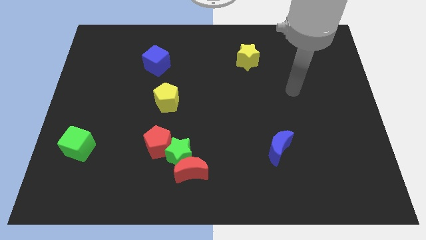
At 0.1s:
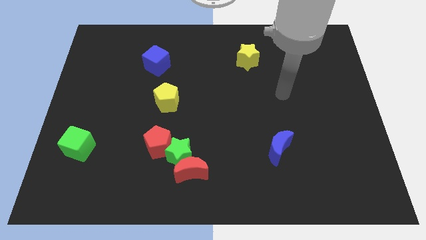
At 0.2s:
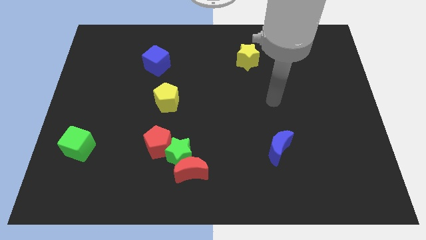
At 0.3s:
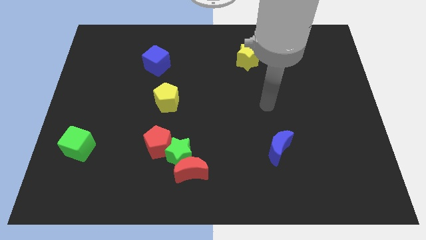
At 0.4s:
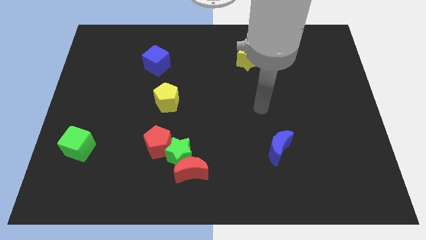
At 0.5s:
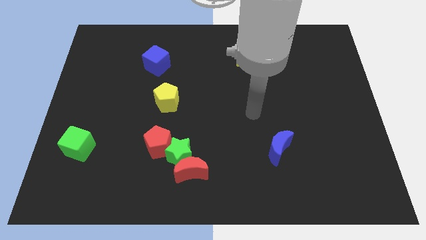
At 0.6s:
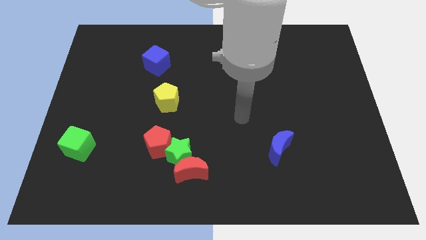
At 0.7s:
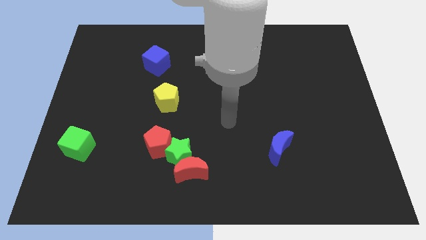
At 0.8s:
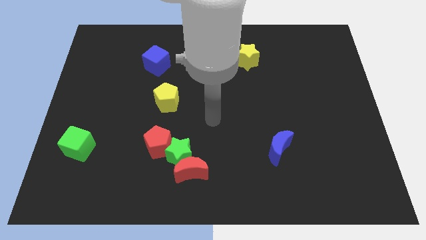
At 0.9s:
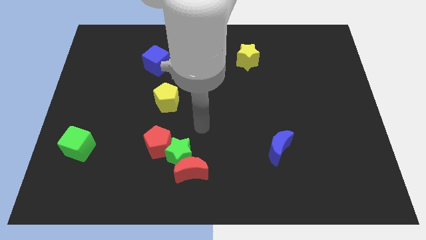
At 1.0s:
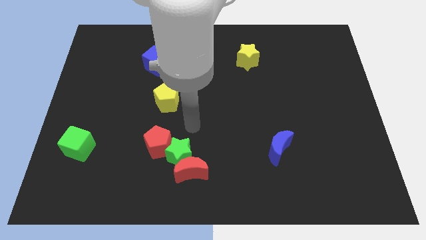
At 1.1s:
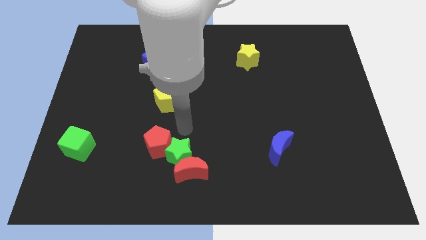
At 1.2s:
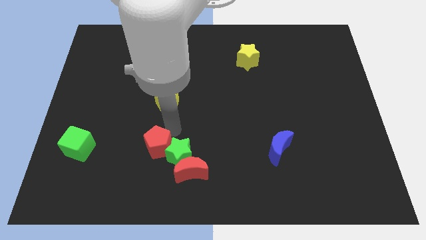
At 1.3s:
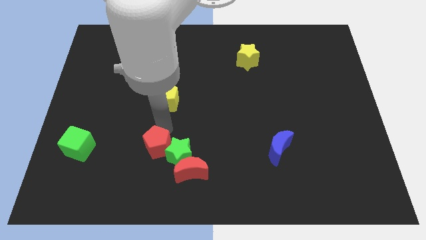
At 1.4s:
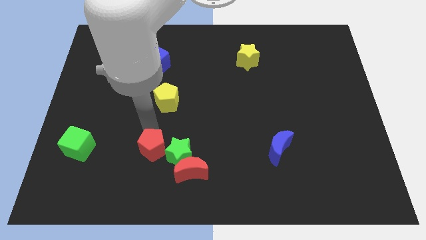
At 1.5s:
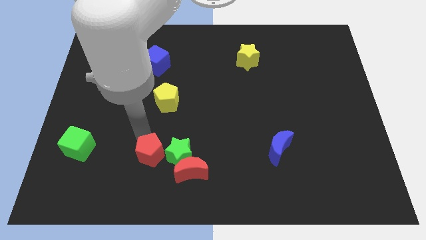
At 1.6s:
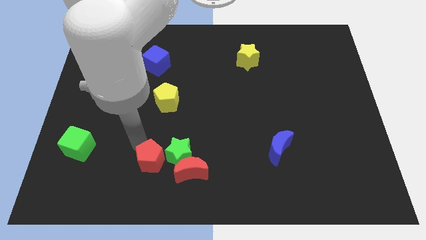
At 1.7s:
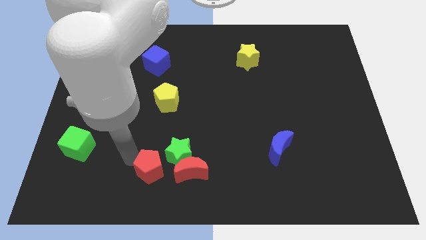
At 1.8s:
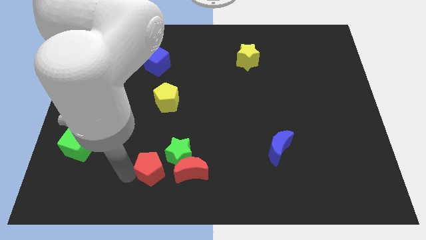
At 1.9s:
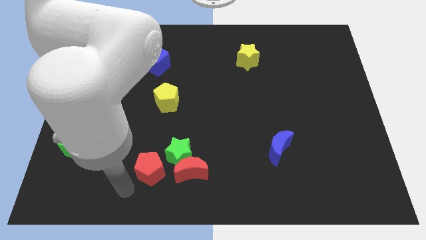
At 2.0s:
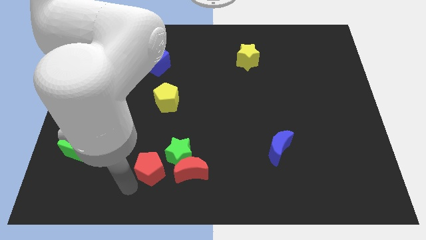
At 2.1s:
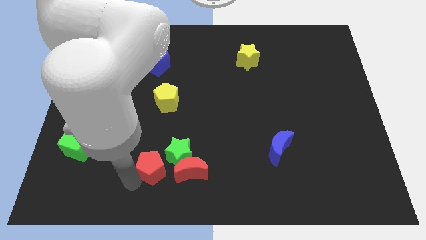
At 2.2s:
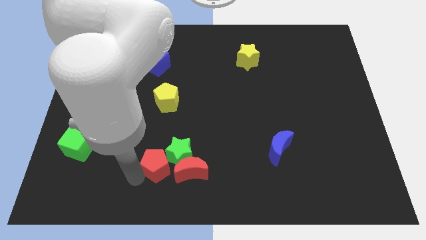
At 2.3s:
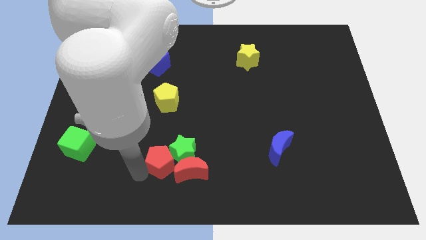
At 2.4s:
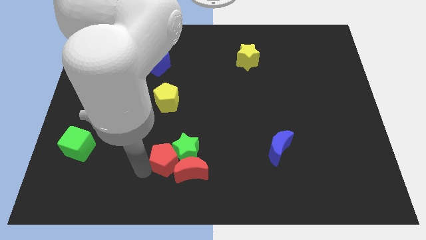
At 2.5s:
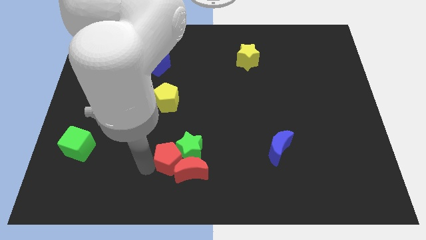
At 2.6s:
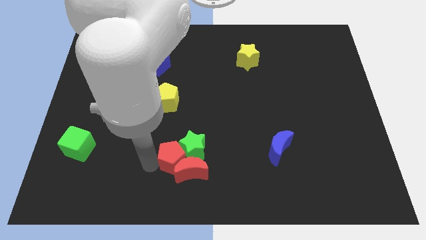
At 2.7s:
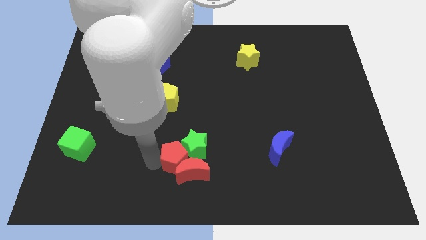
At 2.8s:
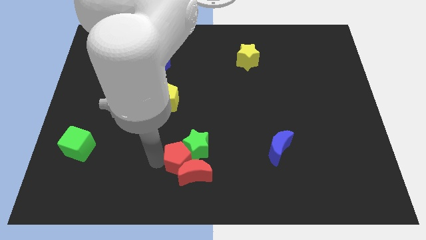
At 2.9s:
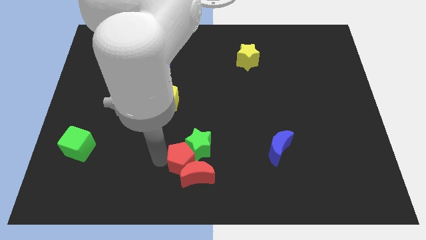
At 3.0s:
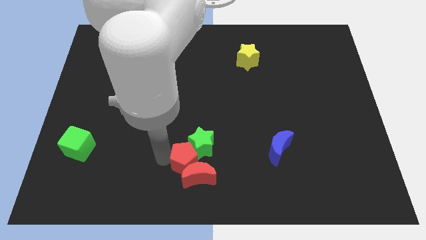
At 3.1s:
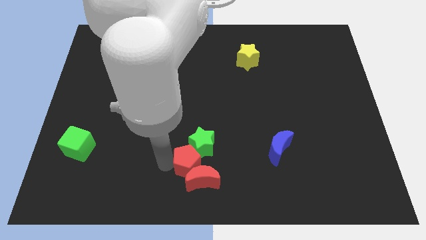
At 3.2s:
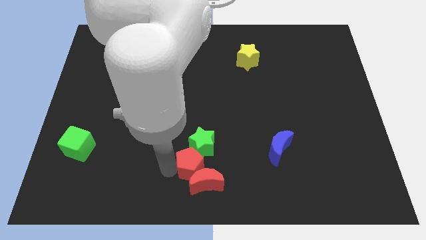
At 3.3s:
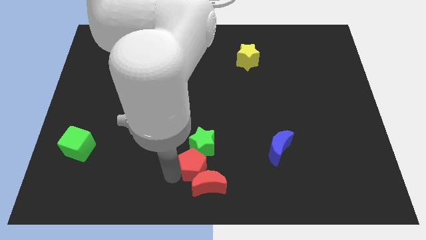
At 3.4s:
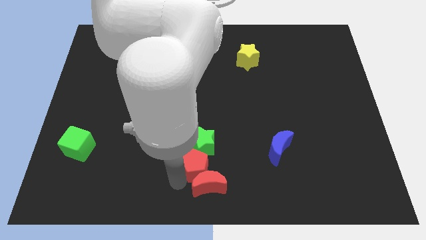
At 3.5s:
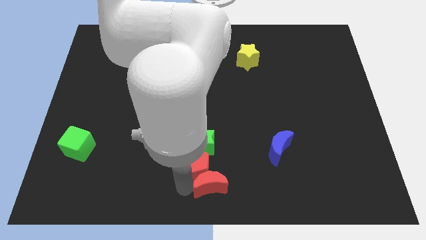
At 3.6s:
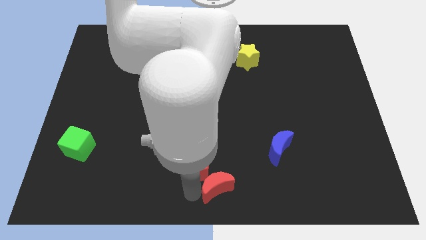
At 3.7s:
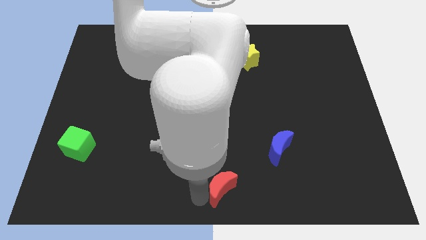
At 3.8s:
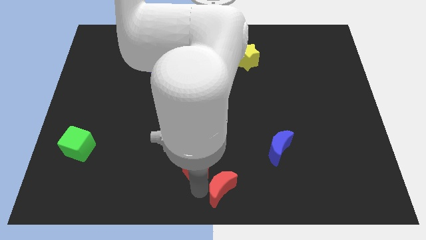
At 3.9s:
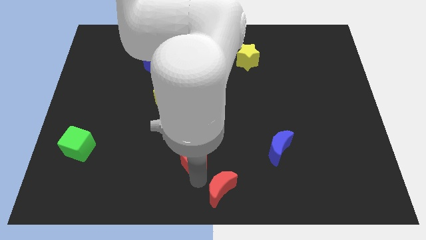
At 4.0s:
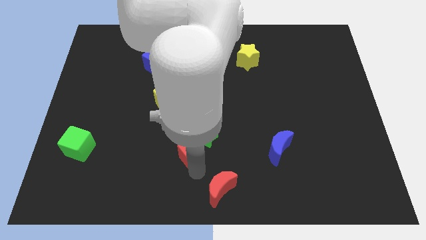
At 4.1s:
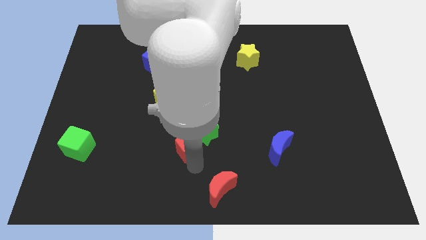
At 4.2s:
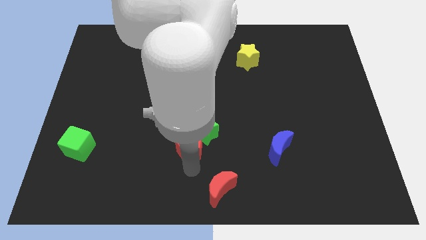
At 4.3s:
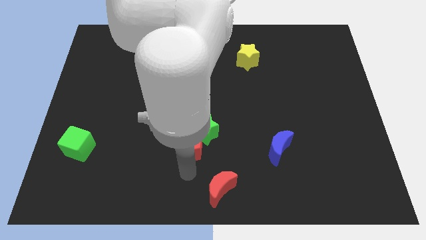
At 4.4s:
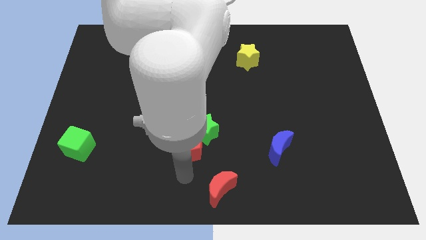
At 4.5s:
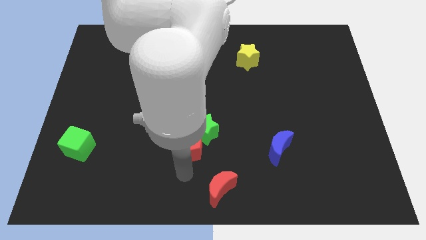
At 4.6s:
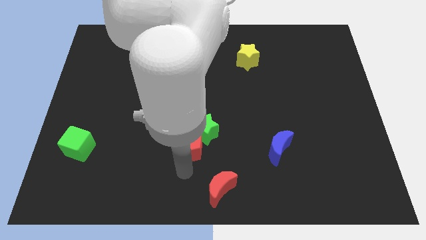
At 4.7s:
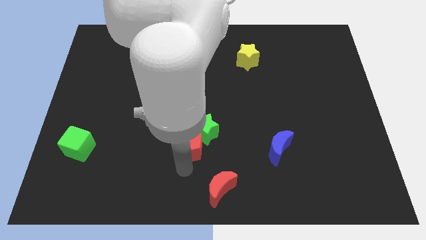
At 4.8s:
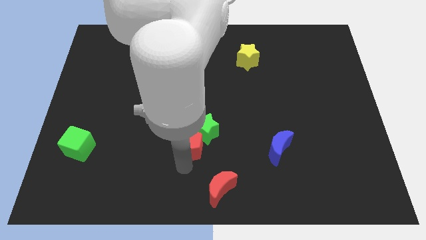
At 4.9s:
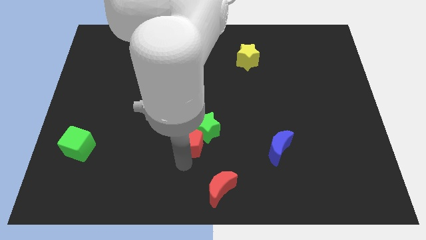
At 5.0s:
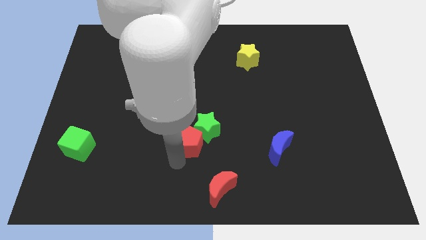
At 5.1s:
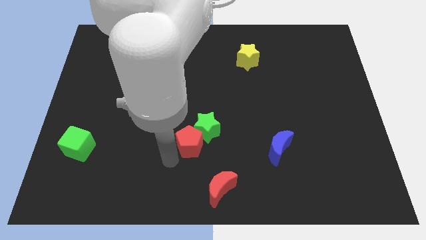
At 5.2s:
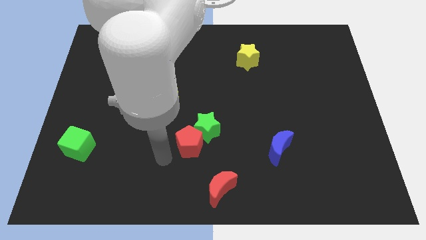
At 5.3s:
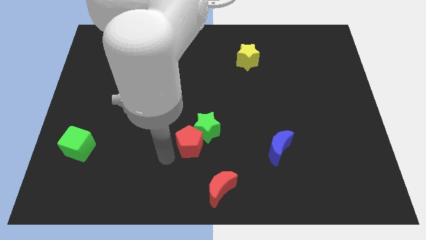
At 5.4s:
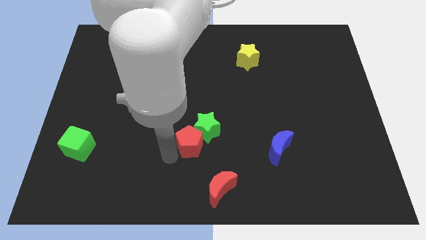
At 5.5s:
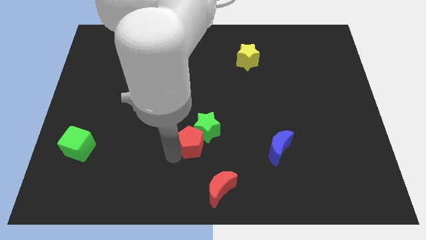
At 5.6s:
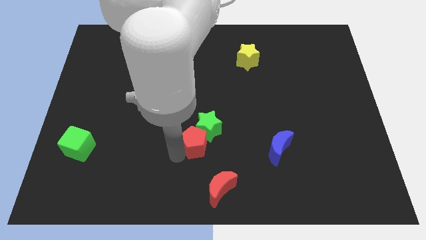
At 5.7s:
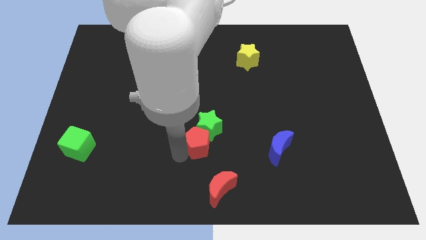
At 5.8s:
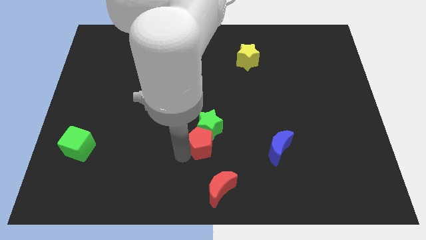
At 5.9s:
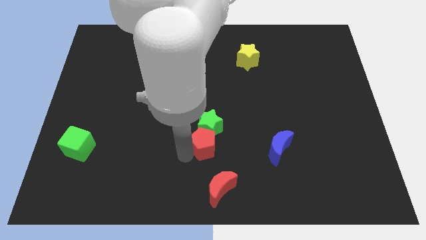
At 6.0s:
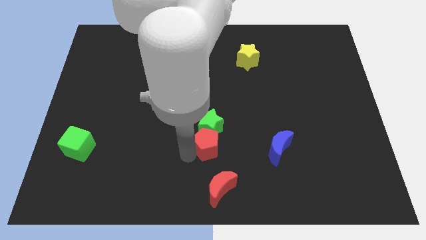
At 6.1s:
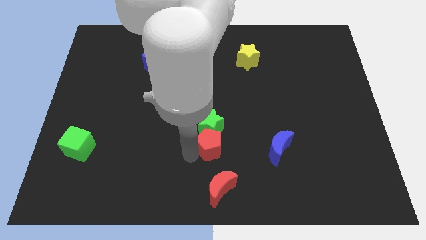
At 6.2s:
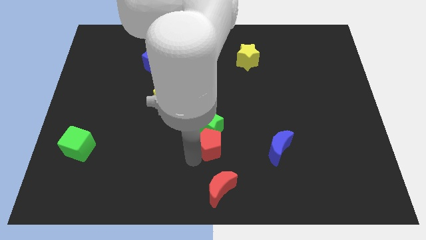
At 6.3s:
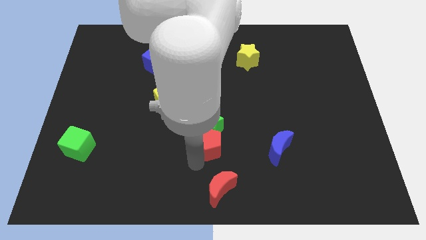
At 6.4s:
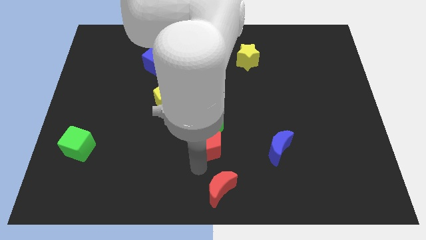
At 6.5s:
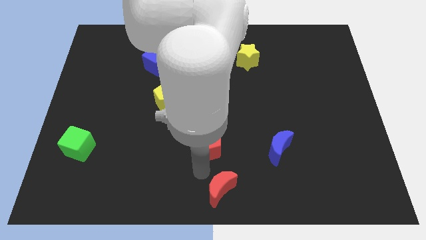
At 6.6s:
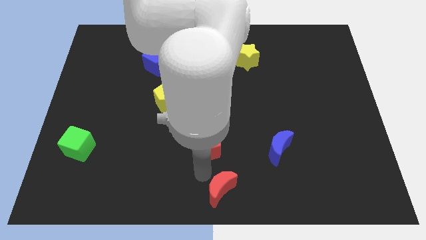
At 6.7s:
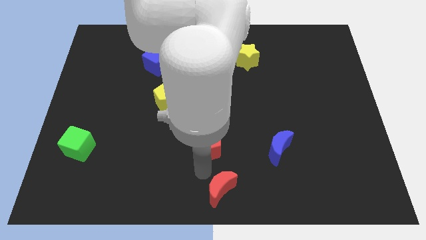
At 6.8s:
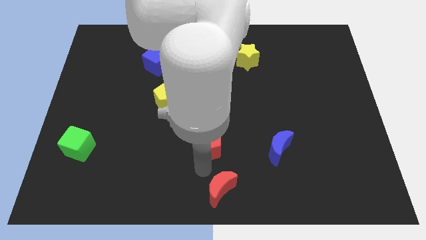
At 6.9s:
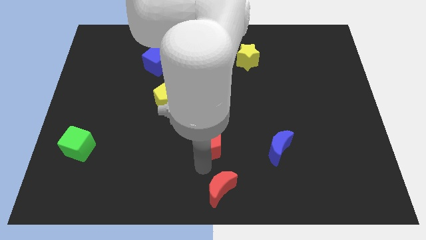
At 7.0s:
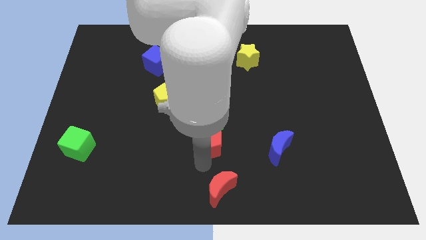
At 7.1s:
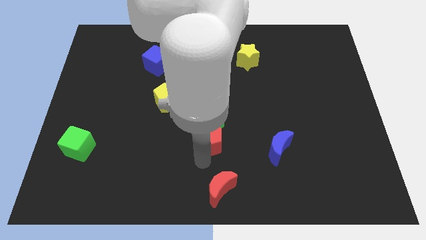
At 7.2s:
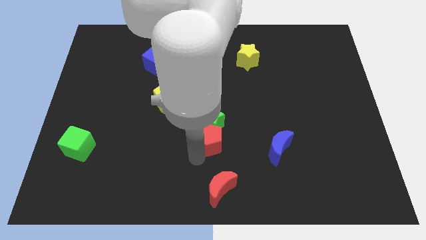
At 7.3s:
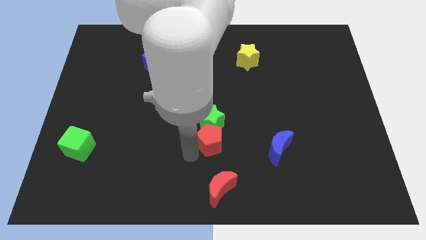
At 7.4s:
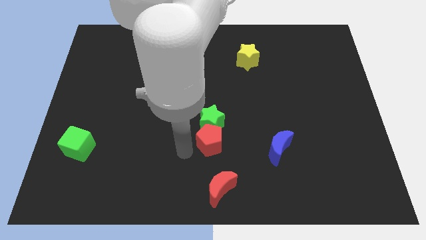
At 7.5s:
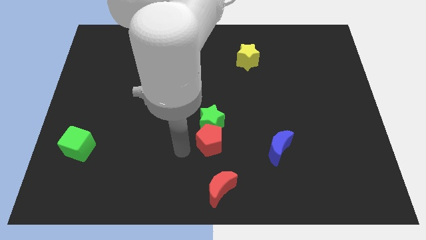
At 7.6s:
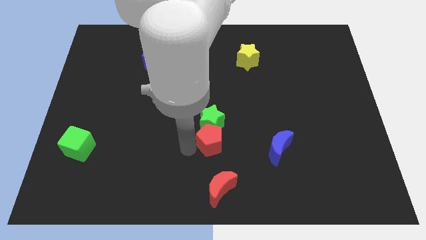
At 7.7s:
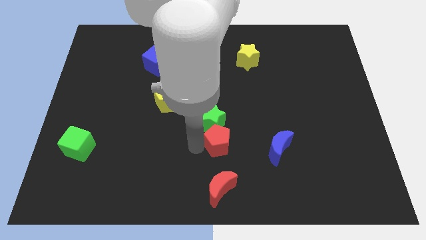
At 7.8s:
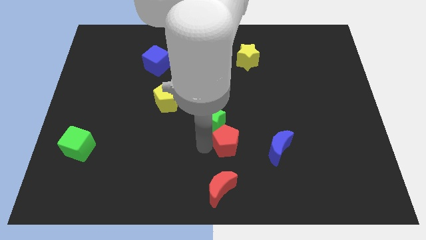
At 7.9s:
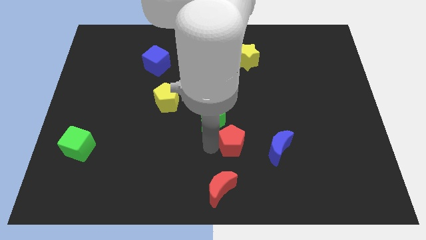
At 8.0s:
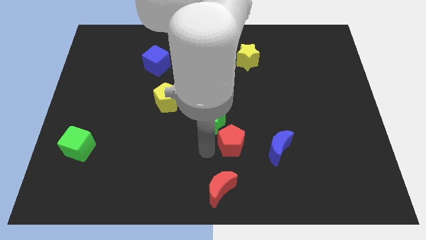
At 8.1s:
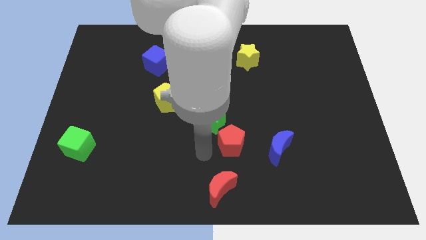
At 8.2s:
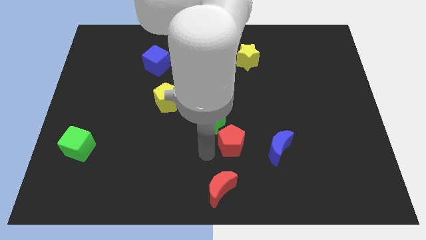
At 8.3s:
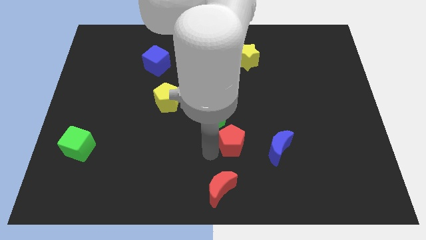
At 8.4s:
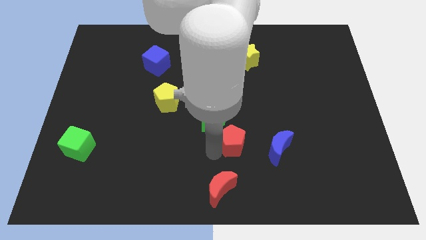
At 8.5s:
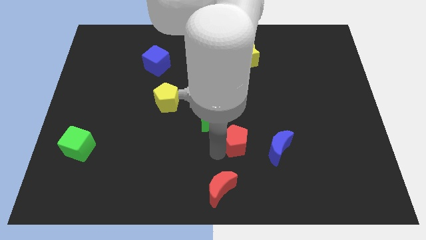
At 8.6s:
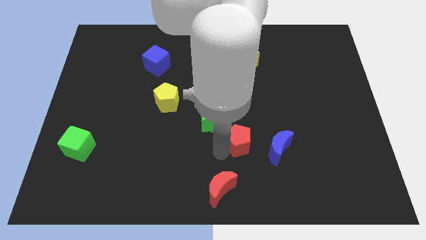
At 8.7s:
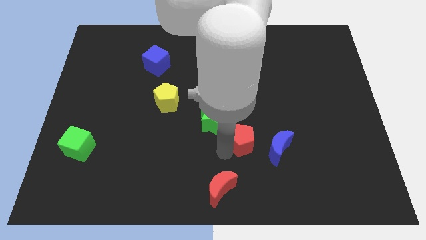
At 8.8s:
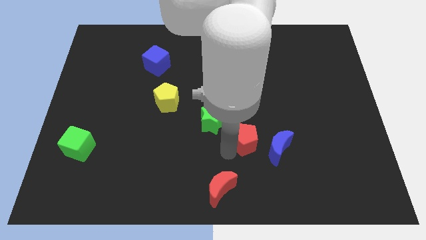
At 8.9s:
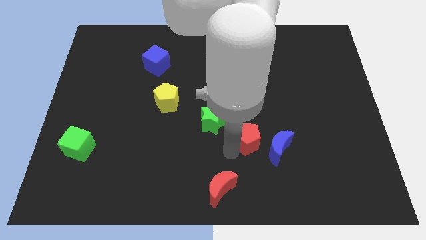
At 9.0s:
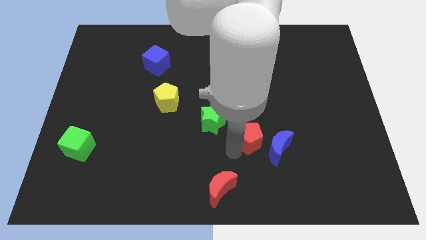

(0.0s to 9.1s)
push the red pentagon right
